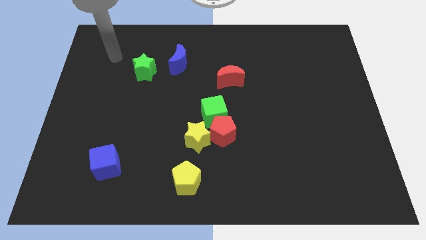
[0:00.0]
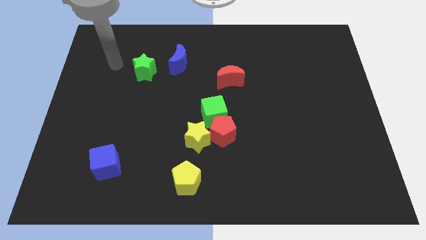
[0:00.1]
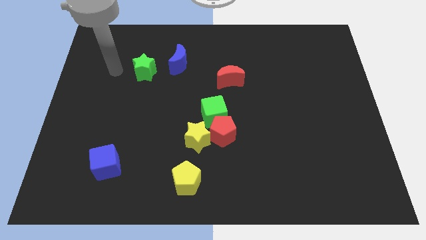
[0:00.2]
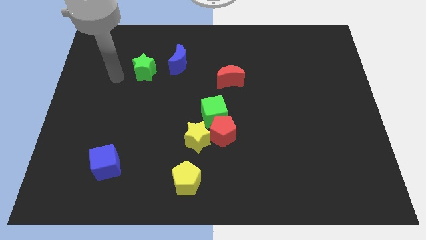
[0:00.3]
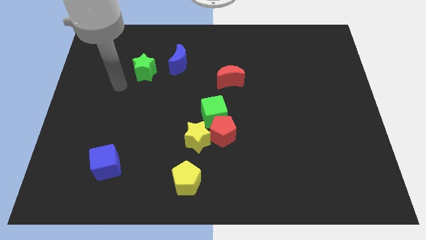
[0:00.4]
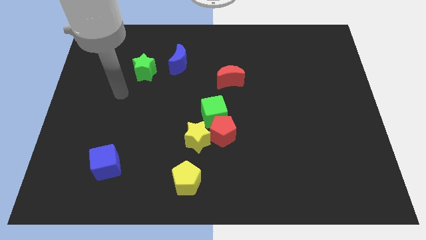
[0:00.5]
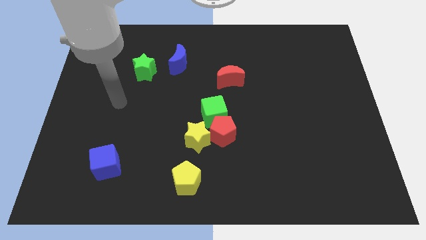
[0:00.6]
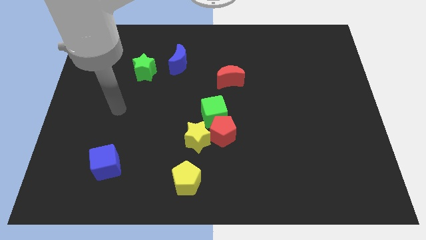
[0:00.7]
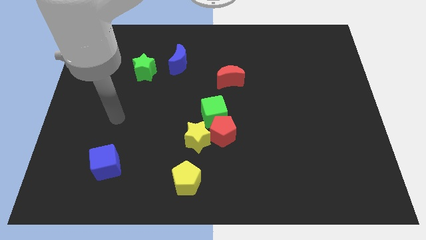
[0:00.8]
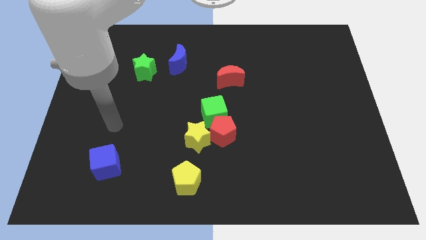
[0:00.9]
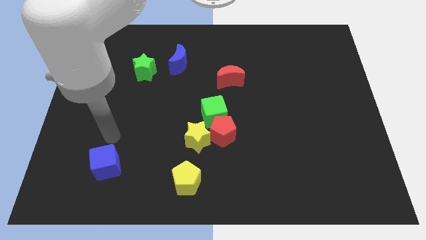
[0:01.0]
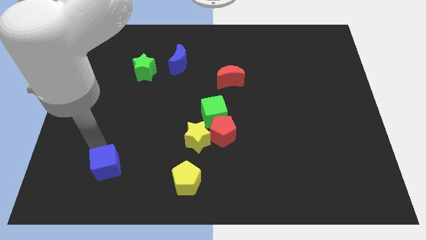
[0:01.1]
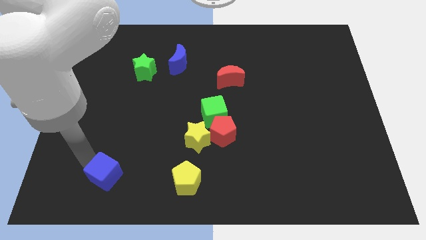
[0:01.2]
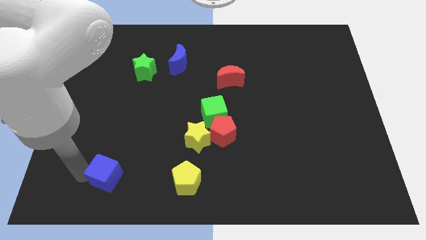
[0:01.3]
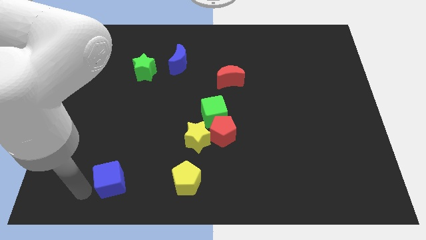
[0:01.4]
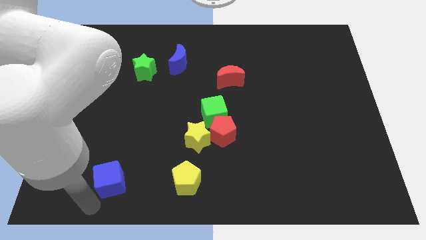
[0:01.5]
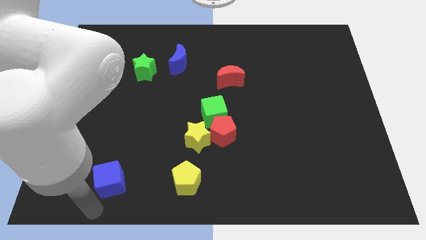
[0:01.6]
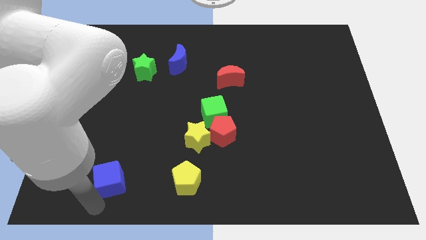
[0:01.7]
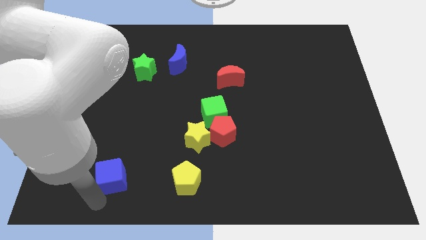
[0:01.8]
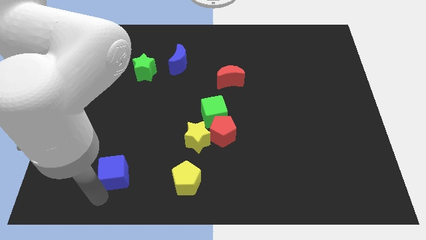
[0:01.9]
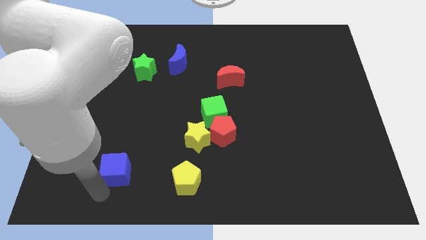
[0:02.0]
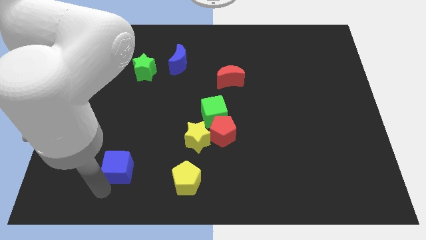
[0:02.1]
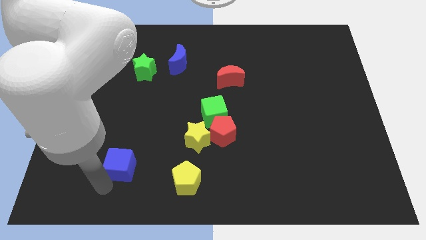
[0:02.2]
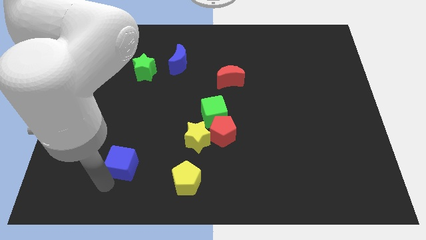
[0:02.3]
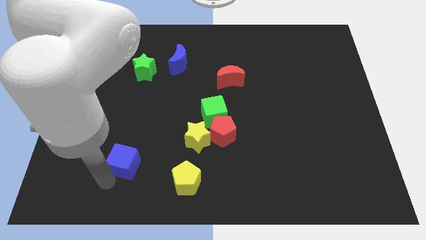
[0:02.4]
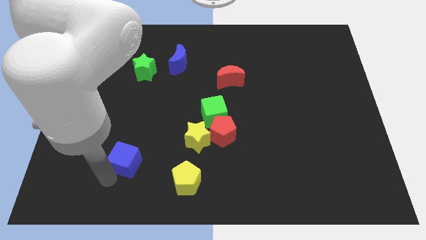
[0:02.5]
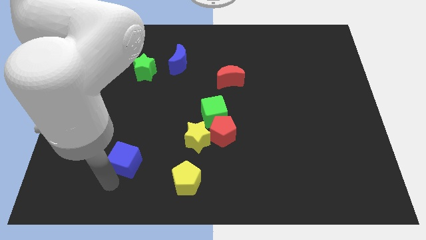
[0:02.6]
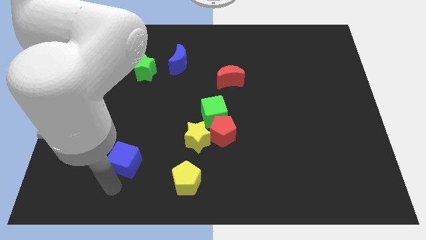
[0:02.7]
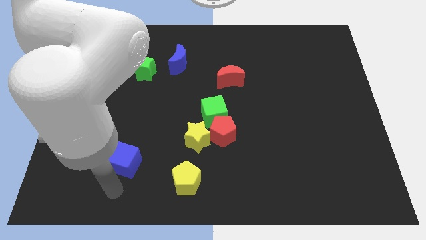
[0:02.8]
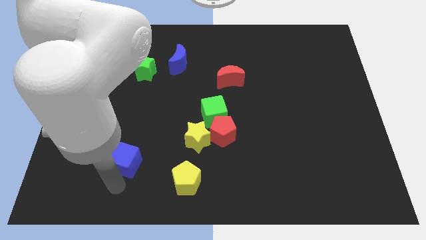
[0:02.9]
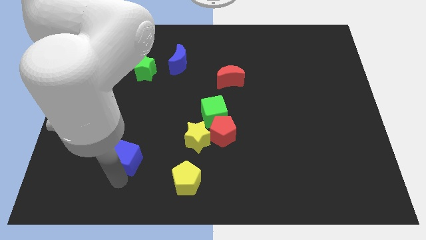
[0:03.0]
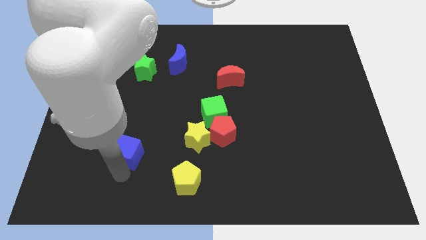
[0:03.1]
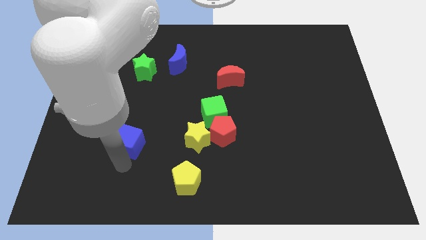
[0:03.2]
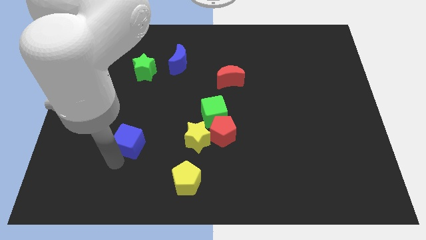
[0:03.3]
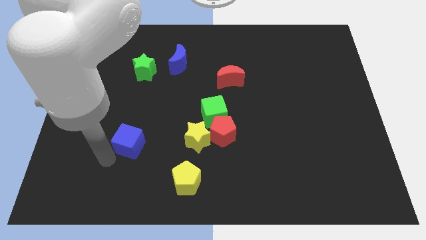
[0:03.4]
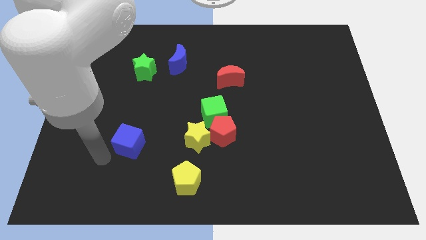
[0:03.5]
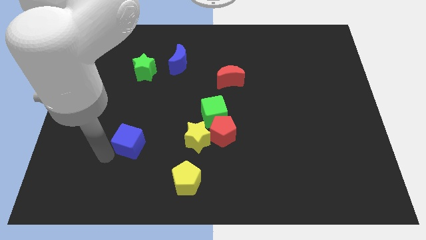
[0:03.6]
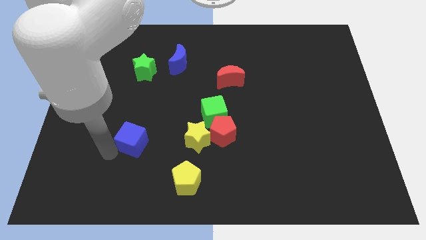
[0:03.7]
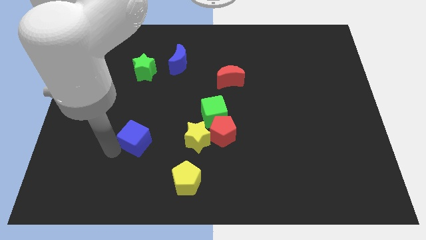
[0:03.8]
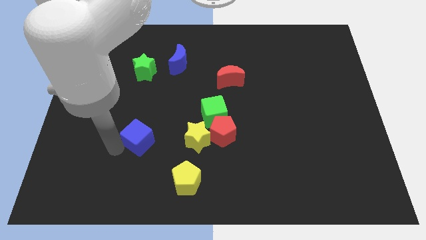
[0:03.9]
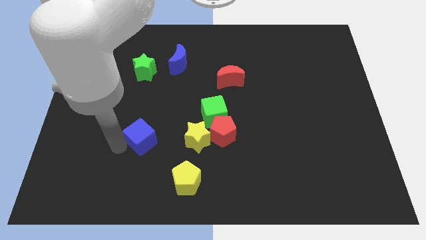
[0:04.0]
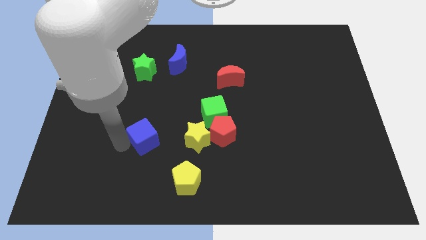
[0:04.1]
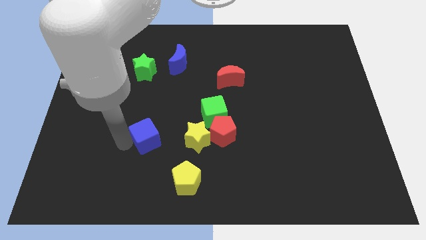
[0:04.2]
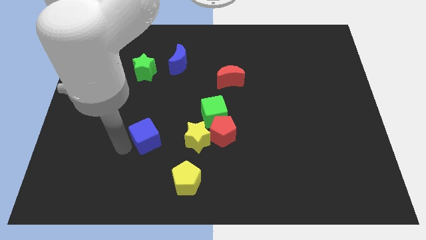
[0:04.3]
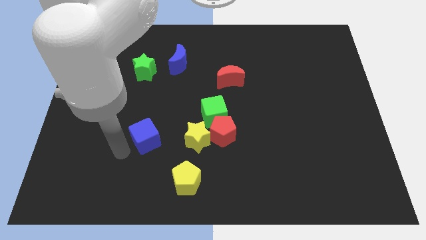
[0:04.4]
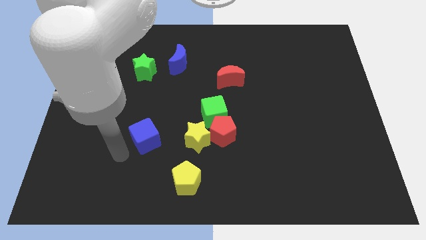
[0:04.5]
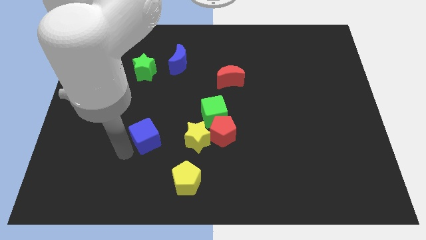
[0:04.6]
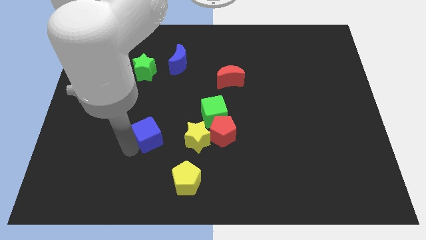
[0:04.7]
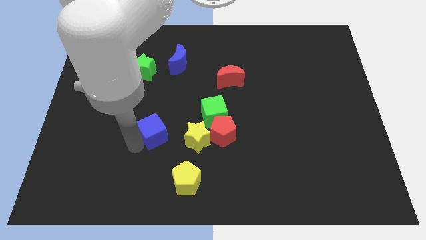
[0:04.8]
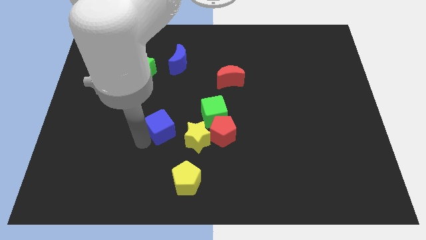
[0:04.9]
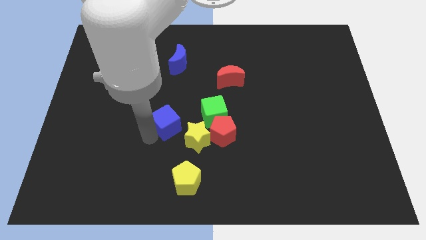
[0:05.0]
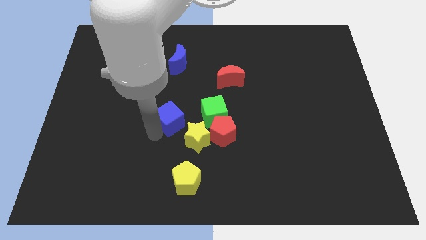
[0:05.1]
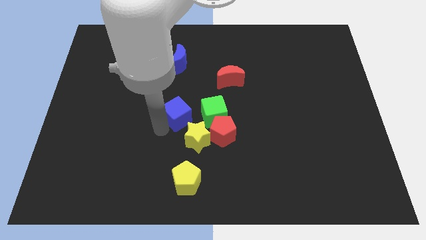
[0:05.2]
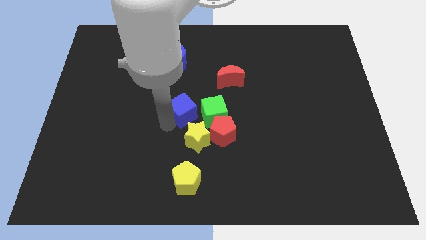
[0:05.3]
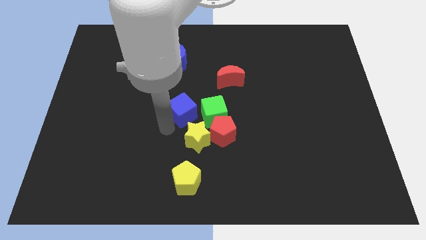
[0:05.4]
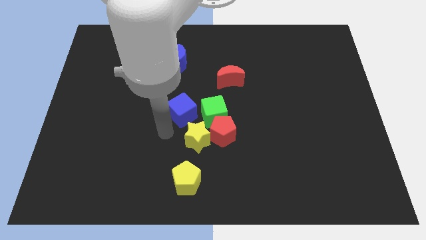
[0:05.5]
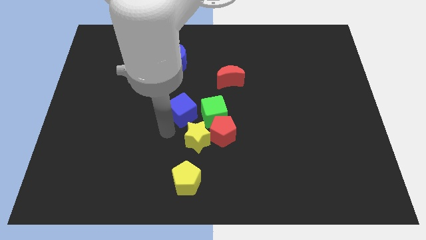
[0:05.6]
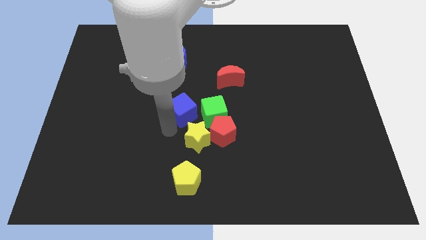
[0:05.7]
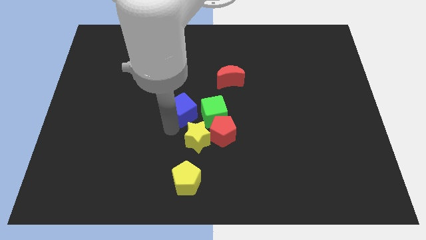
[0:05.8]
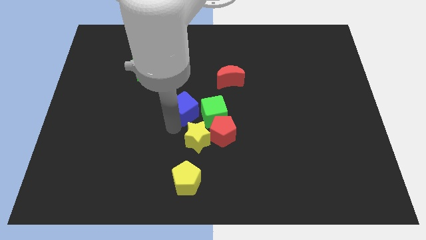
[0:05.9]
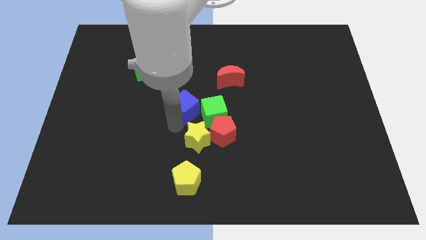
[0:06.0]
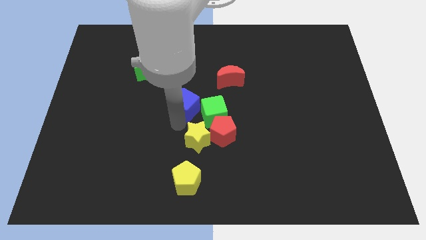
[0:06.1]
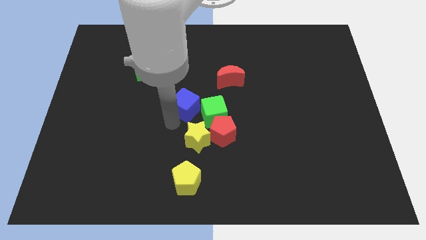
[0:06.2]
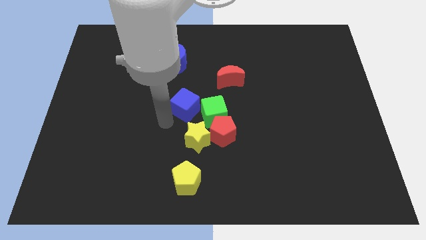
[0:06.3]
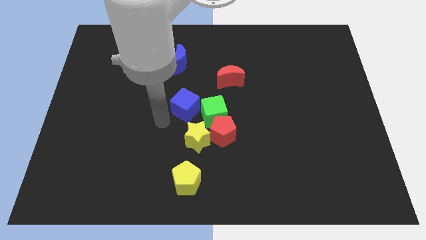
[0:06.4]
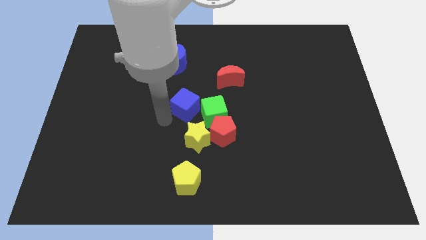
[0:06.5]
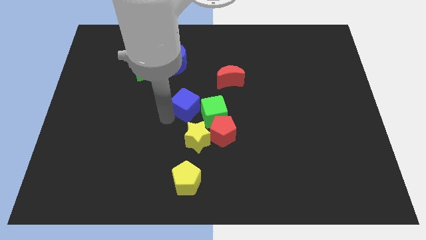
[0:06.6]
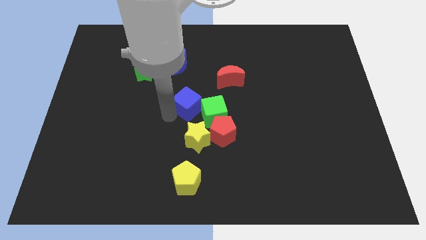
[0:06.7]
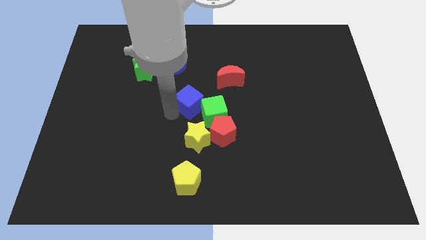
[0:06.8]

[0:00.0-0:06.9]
move the blue cube to the bottom left side of the red moon

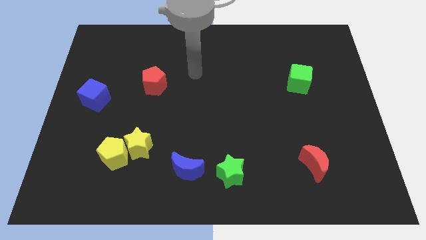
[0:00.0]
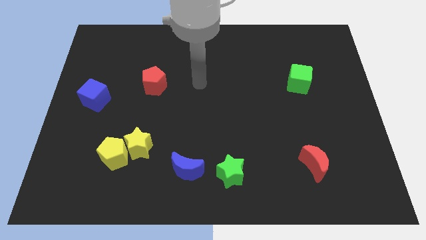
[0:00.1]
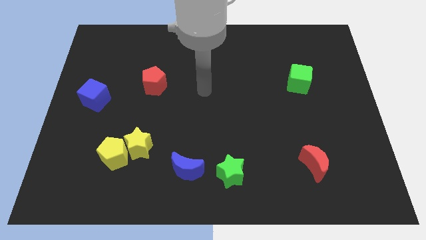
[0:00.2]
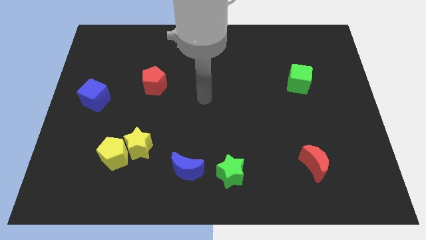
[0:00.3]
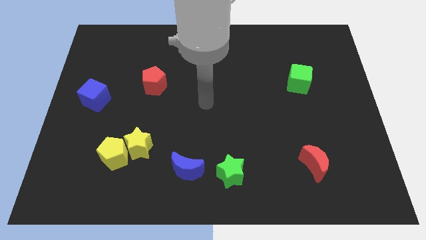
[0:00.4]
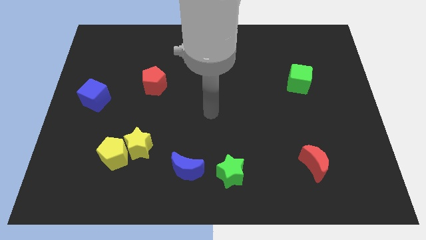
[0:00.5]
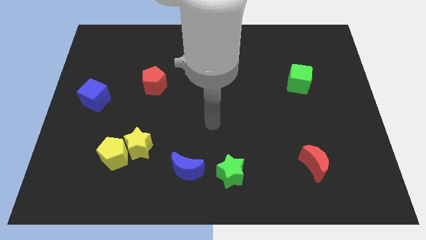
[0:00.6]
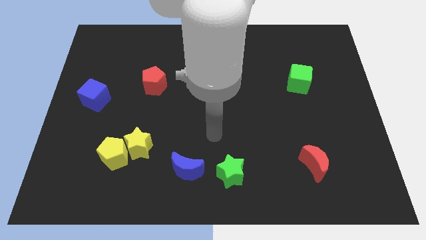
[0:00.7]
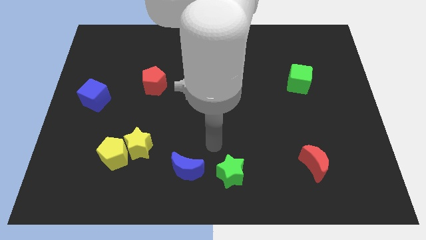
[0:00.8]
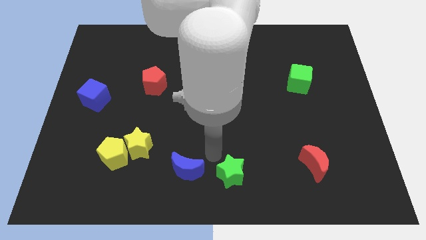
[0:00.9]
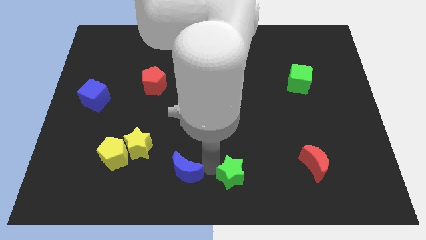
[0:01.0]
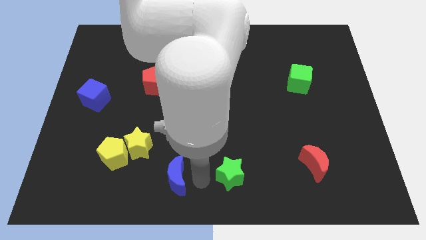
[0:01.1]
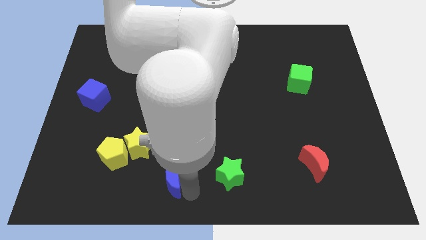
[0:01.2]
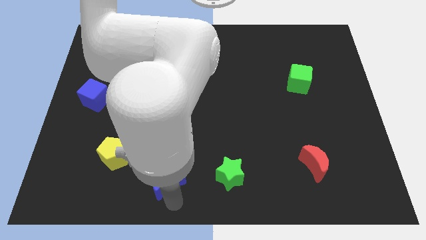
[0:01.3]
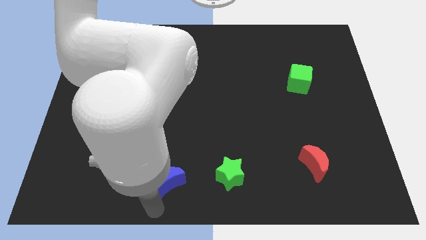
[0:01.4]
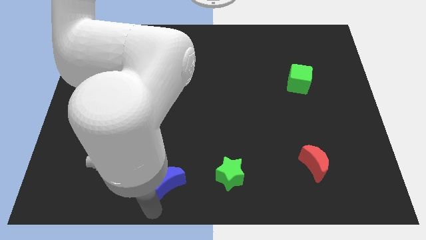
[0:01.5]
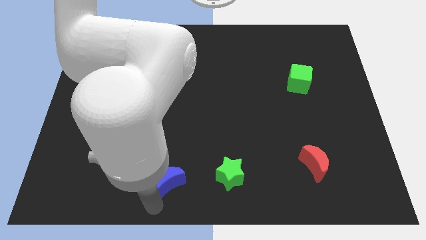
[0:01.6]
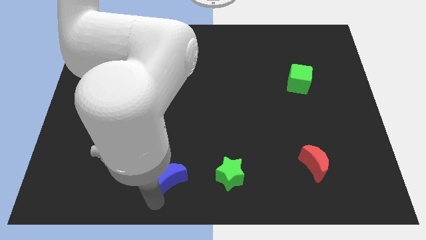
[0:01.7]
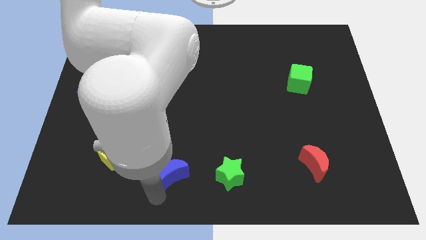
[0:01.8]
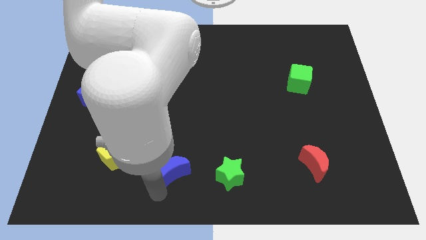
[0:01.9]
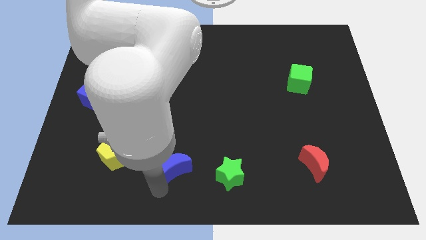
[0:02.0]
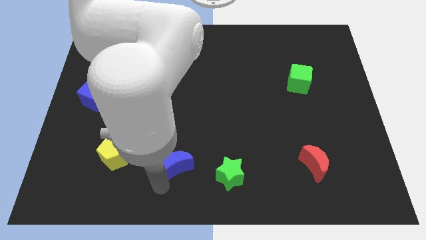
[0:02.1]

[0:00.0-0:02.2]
move the blue moon to the right of the yellow star
